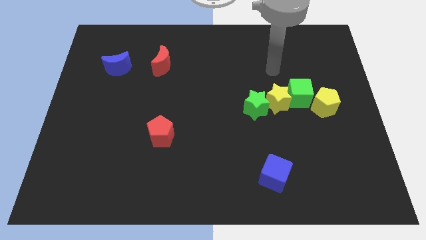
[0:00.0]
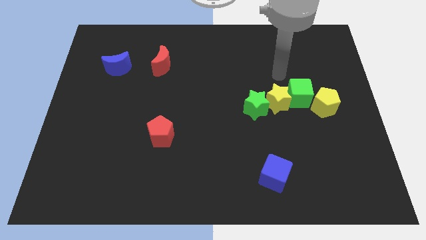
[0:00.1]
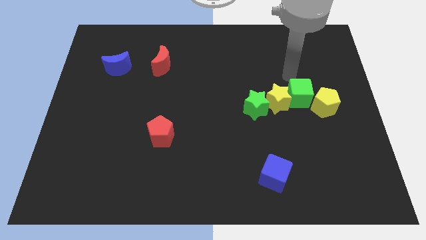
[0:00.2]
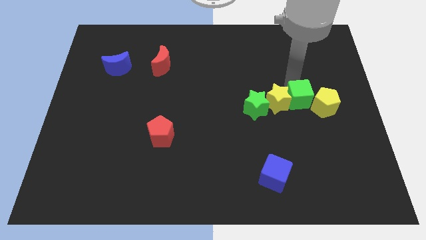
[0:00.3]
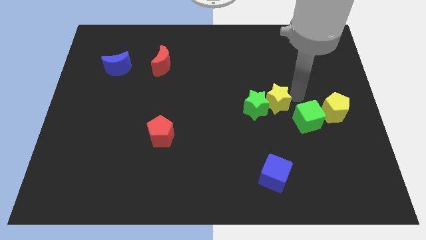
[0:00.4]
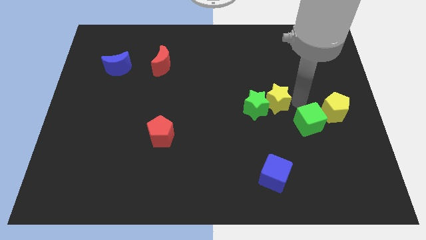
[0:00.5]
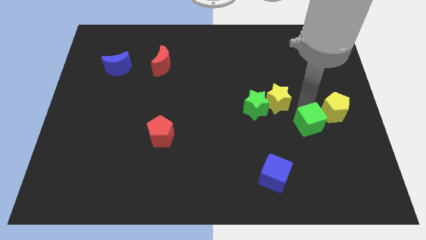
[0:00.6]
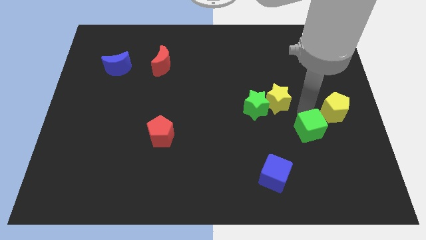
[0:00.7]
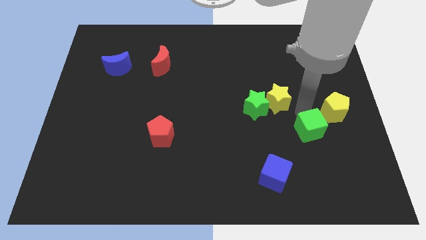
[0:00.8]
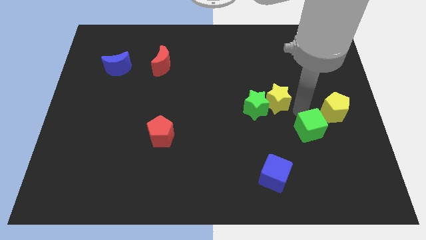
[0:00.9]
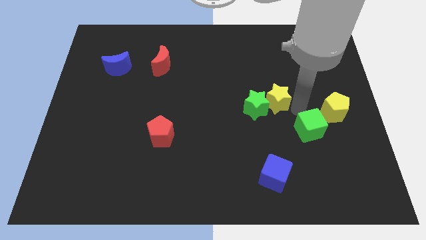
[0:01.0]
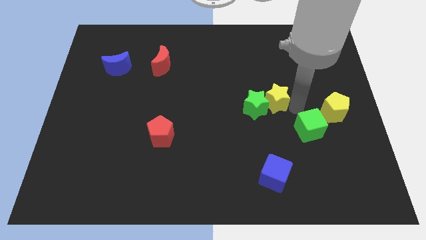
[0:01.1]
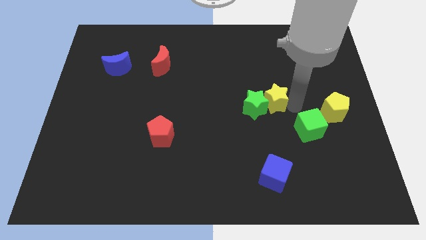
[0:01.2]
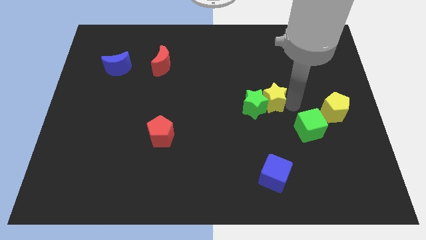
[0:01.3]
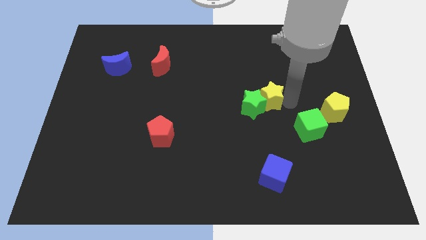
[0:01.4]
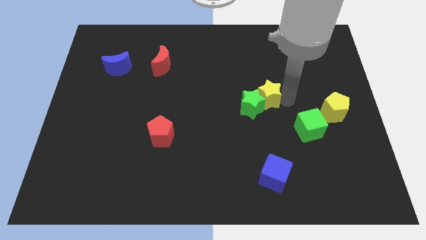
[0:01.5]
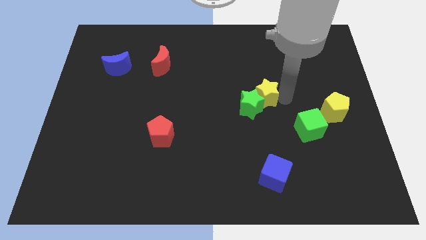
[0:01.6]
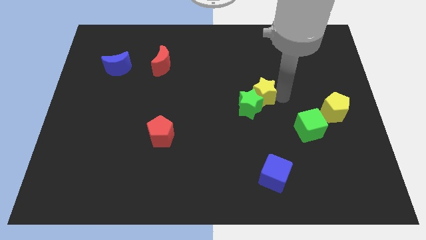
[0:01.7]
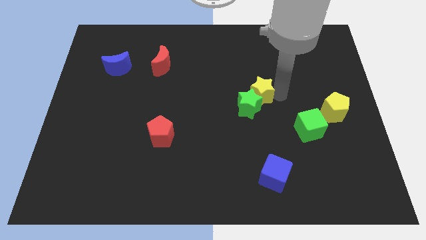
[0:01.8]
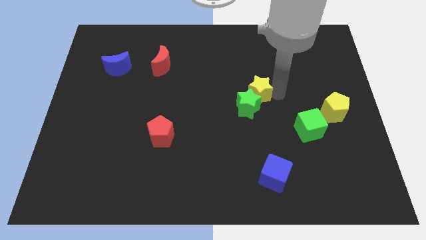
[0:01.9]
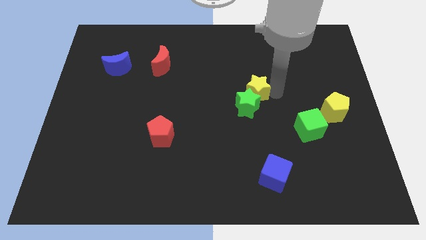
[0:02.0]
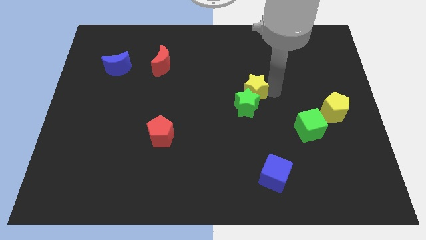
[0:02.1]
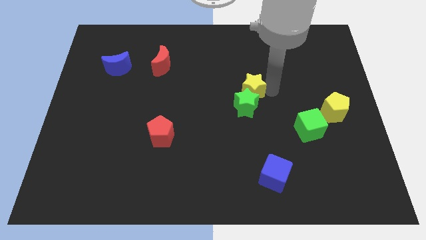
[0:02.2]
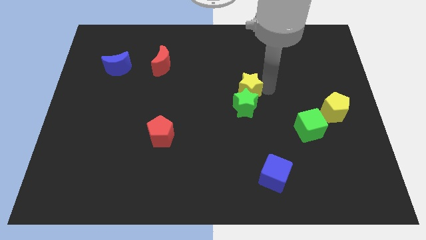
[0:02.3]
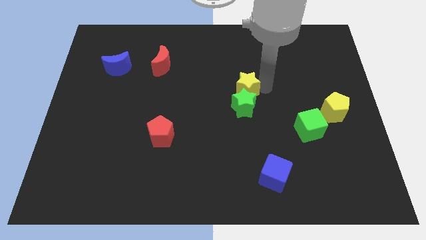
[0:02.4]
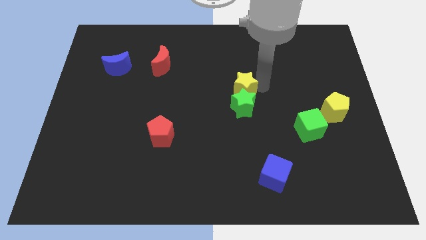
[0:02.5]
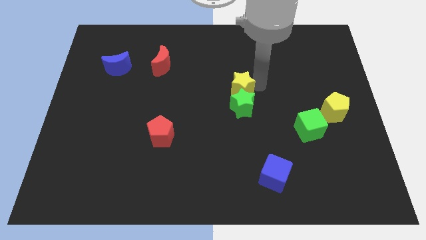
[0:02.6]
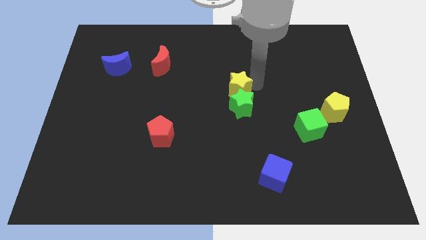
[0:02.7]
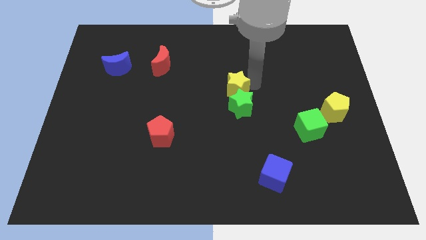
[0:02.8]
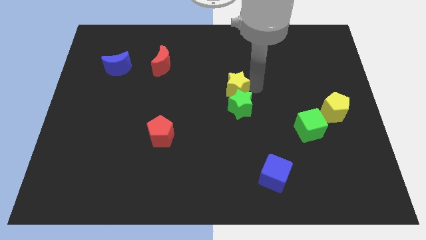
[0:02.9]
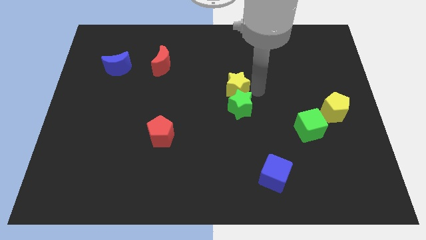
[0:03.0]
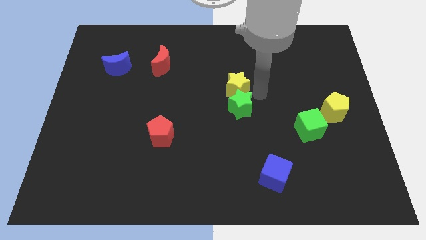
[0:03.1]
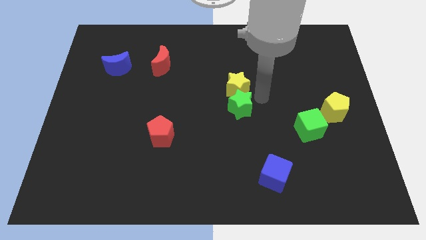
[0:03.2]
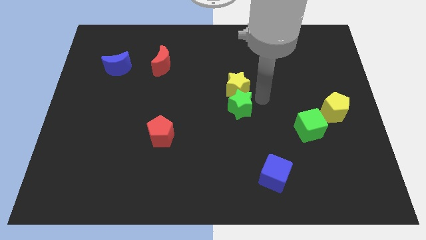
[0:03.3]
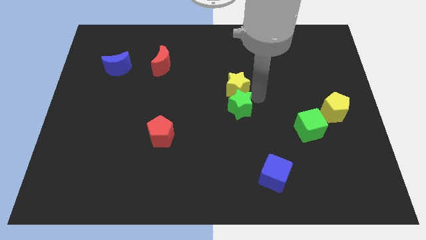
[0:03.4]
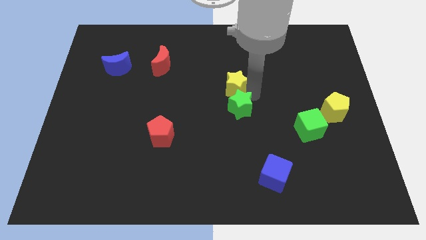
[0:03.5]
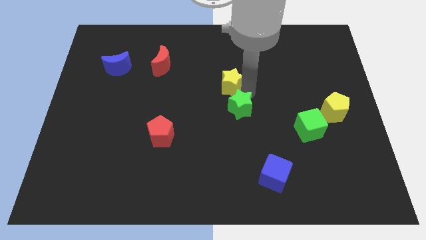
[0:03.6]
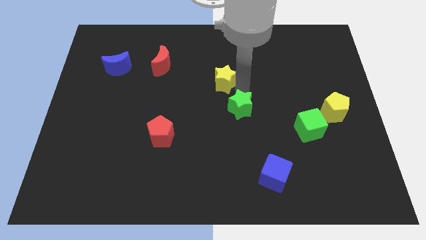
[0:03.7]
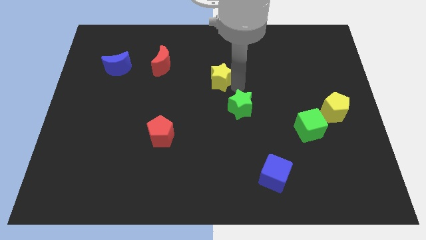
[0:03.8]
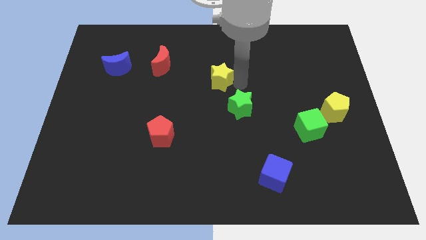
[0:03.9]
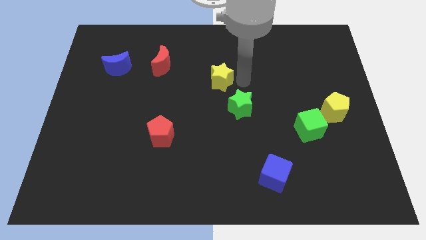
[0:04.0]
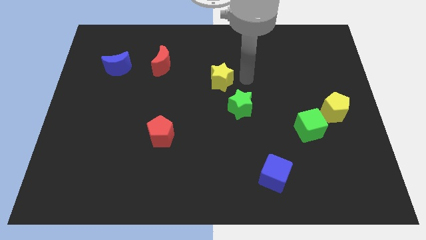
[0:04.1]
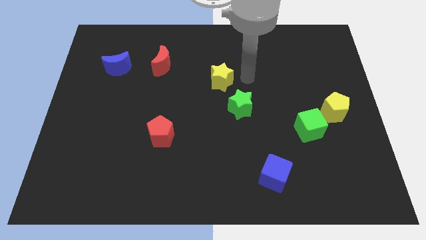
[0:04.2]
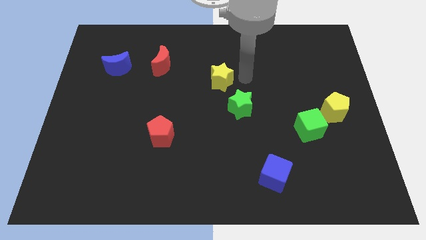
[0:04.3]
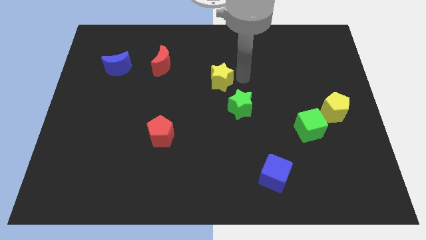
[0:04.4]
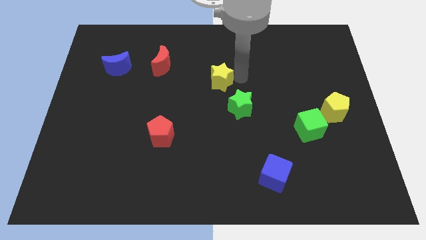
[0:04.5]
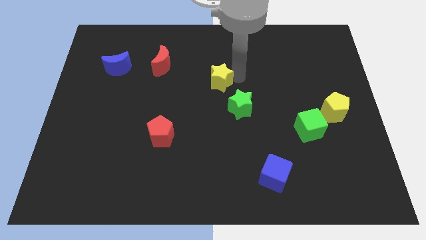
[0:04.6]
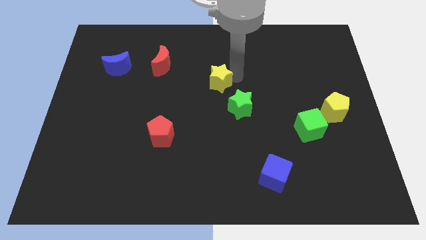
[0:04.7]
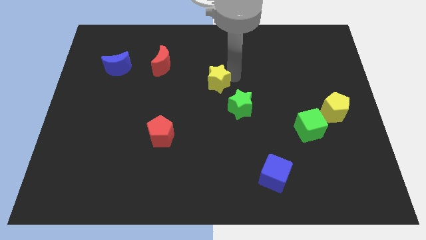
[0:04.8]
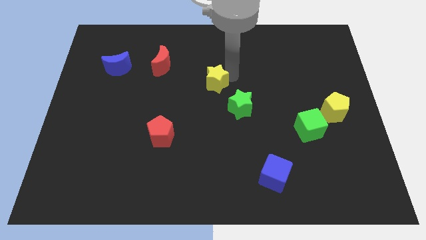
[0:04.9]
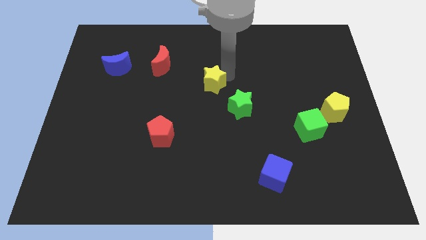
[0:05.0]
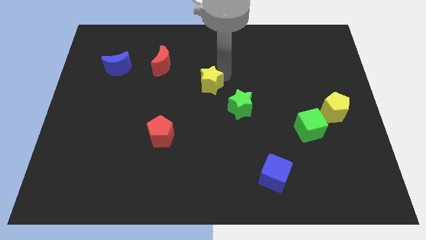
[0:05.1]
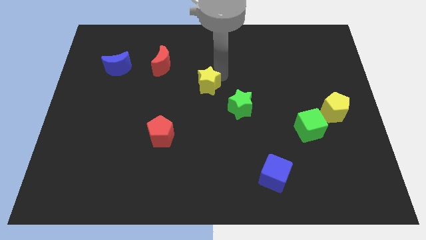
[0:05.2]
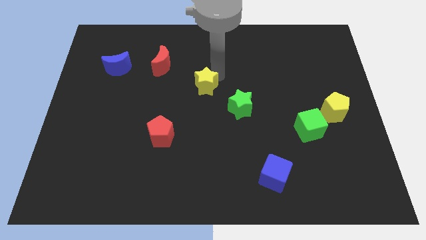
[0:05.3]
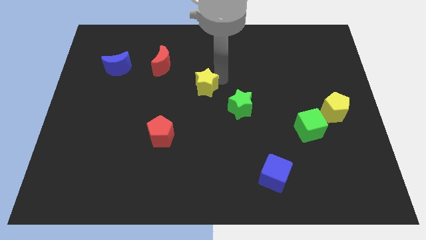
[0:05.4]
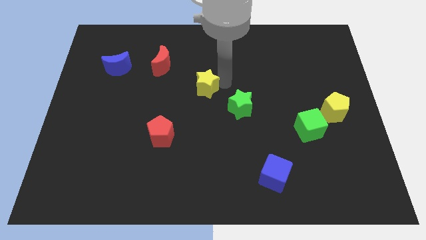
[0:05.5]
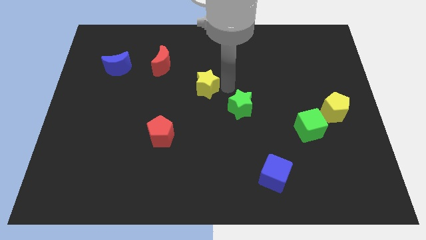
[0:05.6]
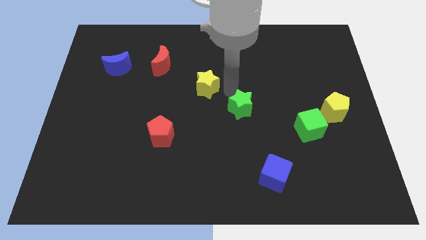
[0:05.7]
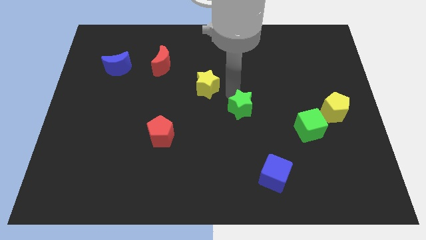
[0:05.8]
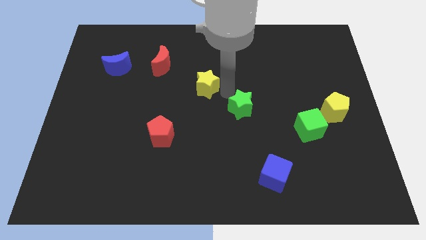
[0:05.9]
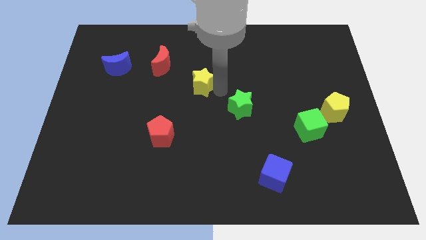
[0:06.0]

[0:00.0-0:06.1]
move the yellow star diagonally down and to the right of the red moon
